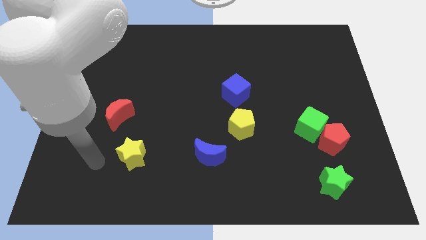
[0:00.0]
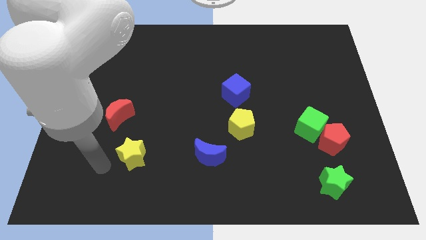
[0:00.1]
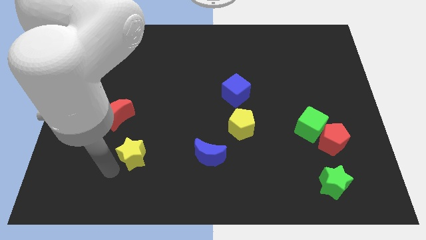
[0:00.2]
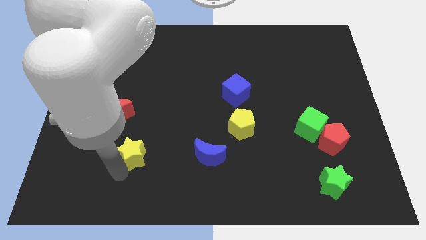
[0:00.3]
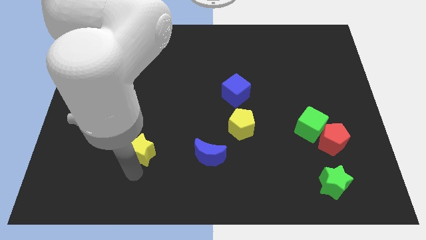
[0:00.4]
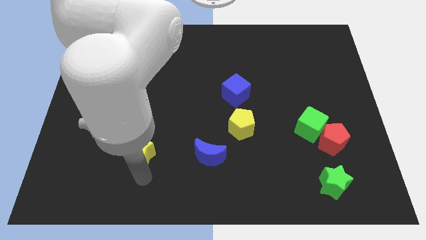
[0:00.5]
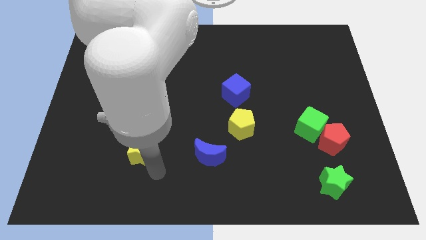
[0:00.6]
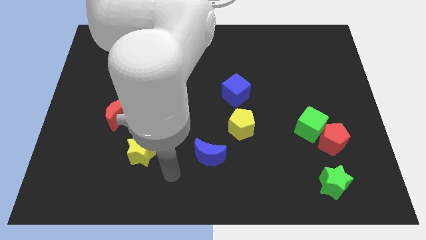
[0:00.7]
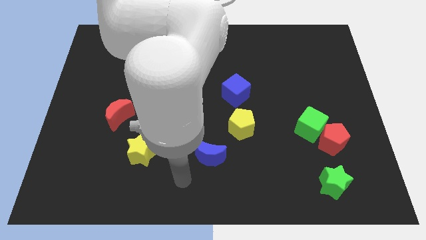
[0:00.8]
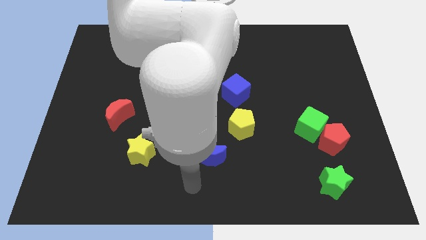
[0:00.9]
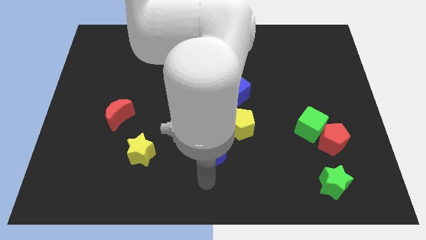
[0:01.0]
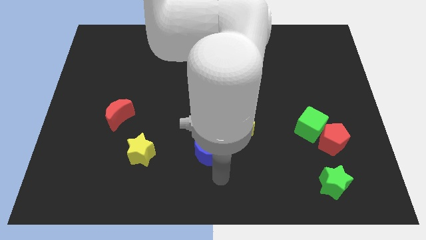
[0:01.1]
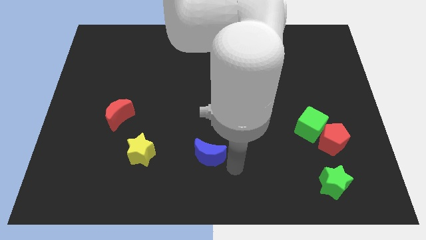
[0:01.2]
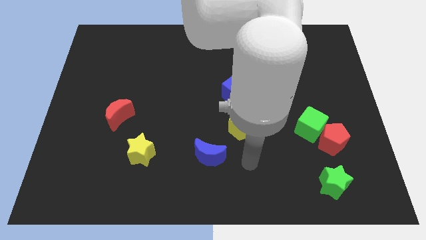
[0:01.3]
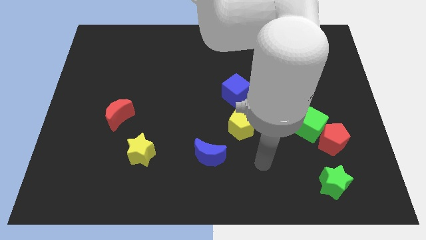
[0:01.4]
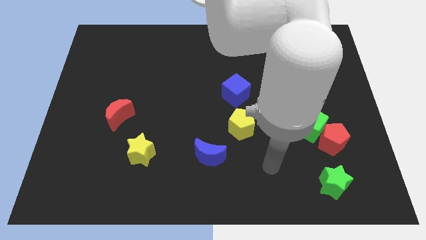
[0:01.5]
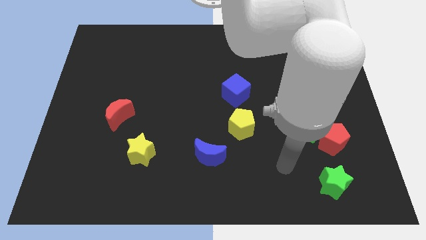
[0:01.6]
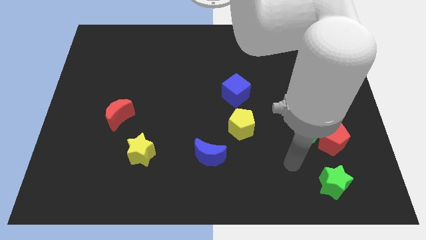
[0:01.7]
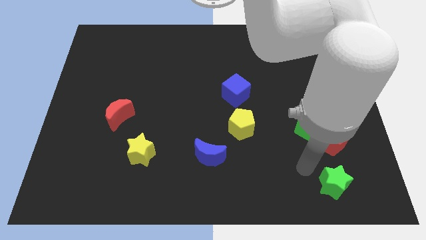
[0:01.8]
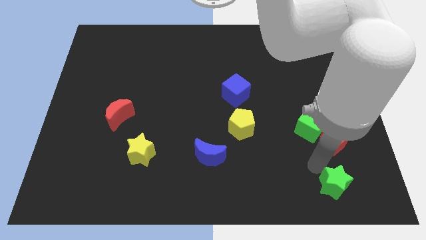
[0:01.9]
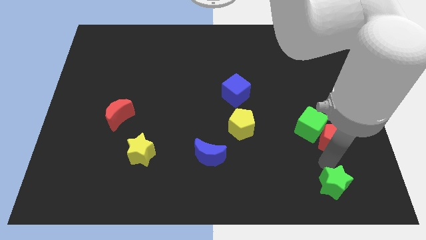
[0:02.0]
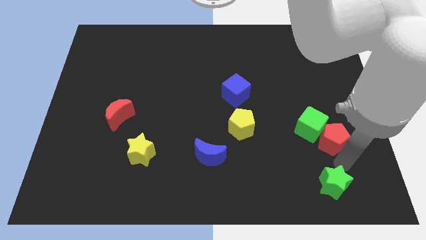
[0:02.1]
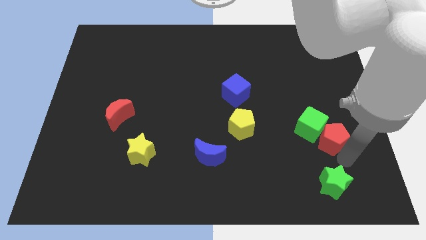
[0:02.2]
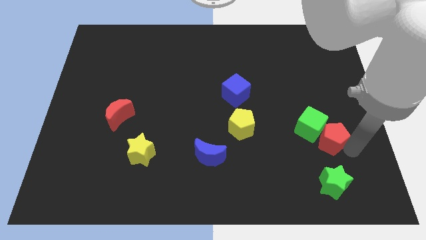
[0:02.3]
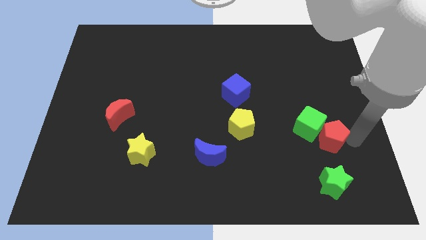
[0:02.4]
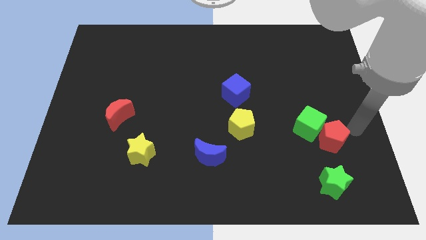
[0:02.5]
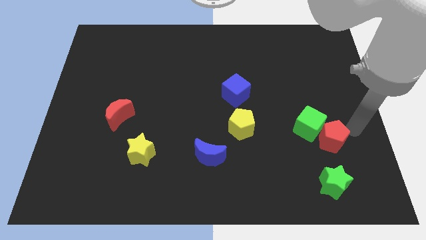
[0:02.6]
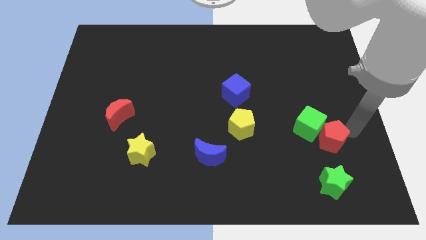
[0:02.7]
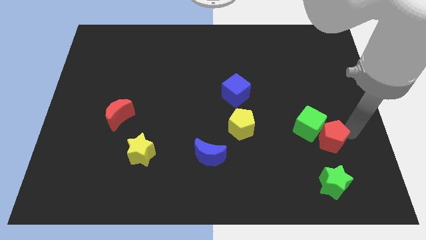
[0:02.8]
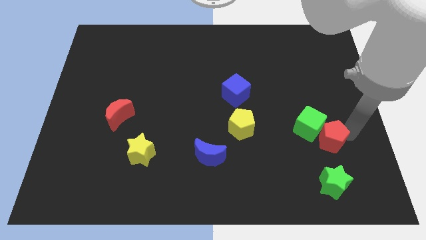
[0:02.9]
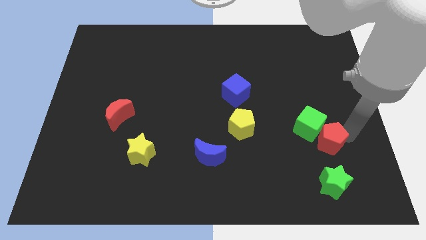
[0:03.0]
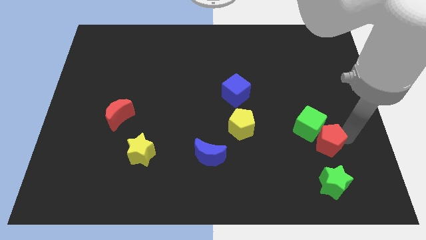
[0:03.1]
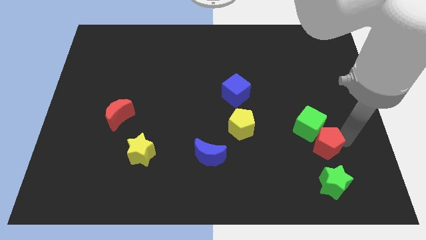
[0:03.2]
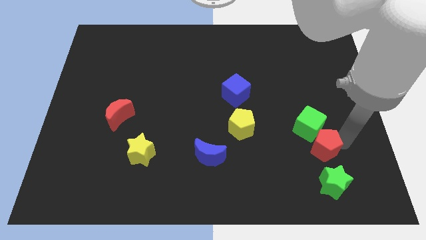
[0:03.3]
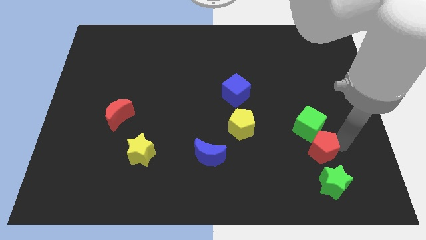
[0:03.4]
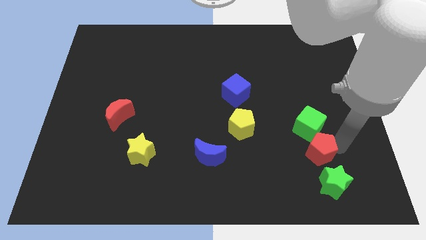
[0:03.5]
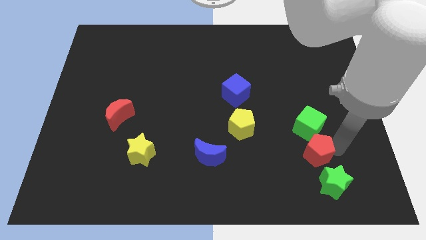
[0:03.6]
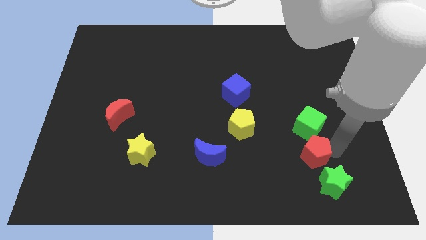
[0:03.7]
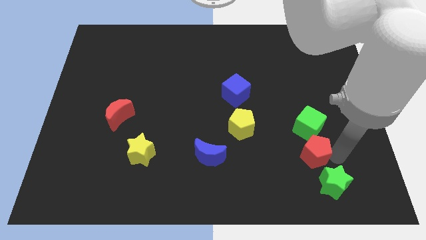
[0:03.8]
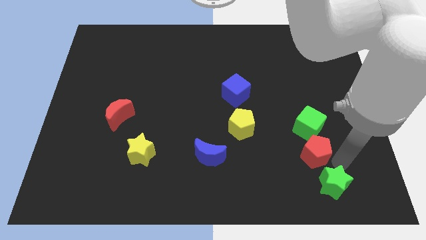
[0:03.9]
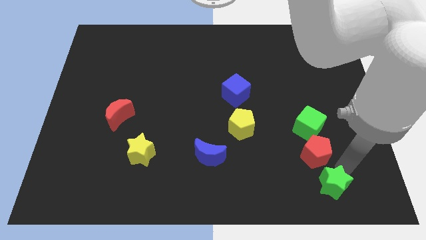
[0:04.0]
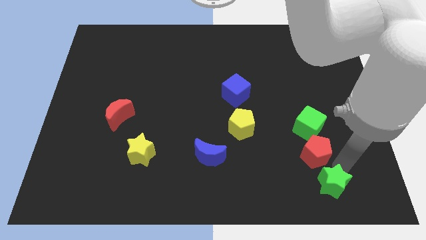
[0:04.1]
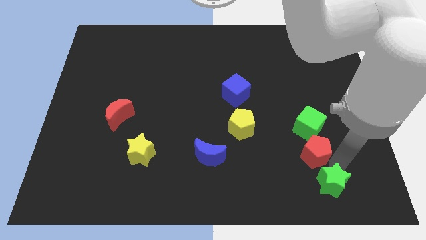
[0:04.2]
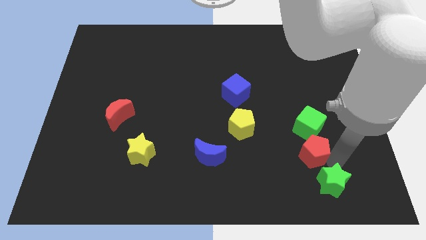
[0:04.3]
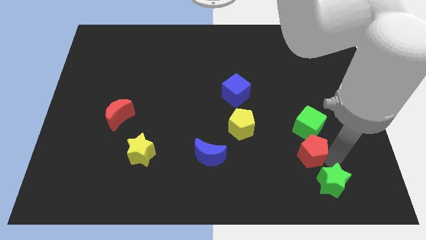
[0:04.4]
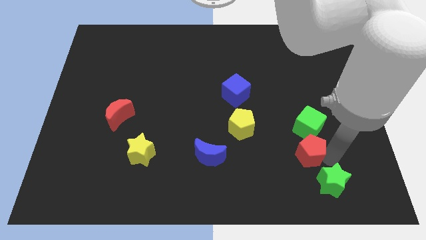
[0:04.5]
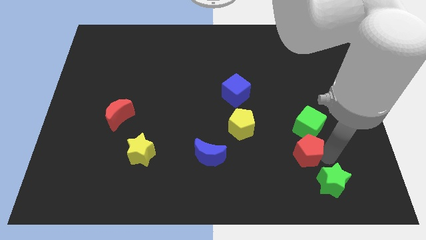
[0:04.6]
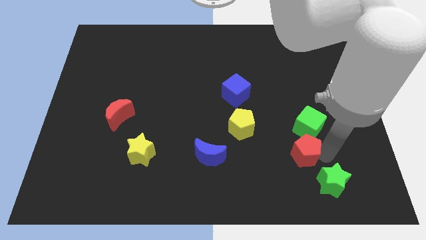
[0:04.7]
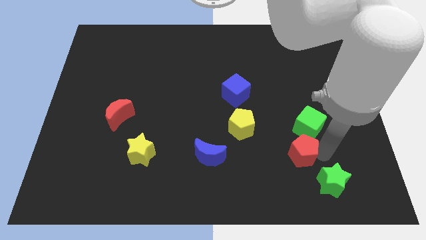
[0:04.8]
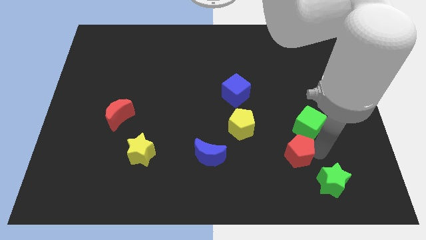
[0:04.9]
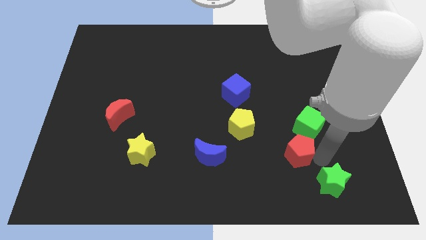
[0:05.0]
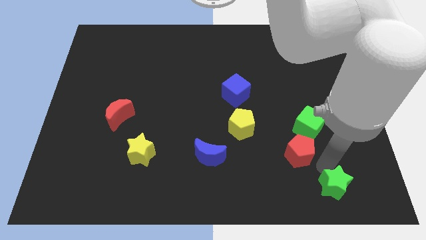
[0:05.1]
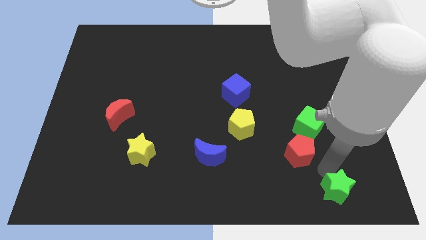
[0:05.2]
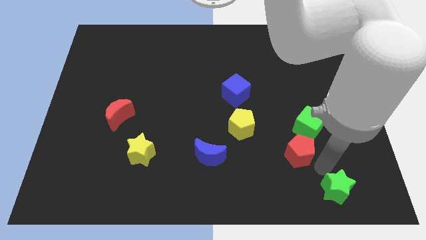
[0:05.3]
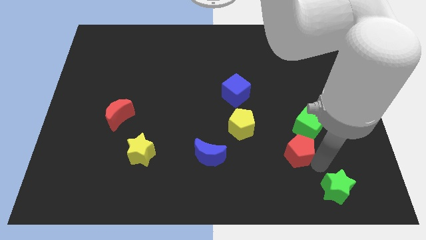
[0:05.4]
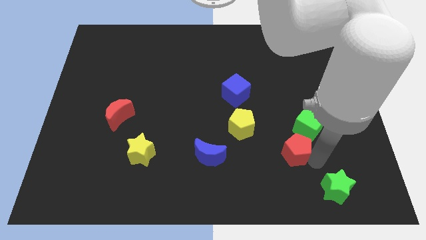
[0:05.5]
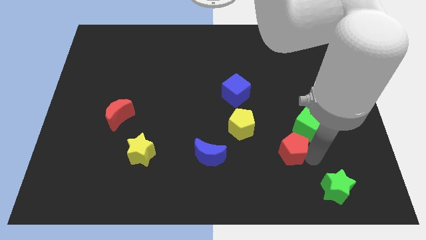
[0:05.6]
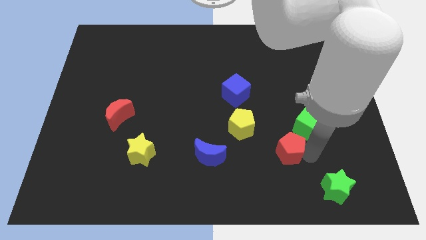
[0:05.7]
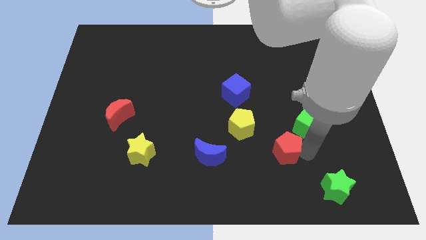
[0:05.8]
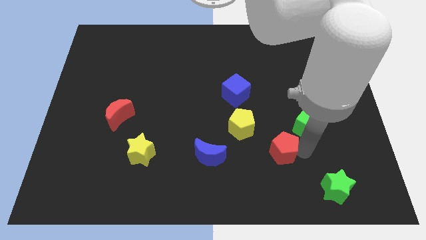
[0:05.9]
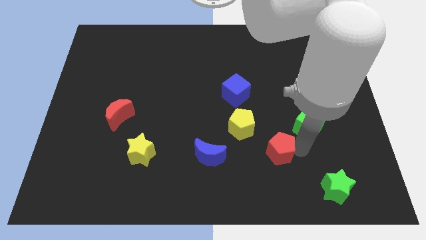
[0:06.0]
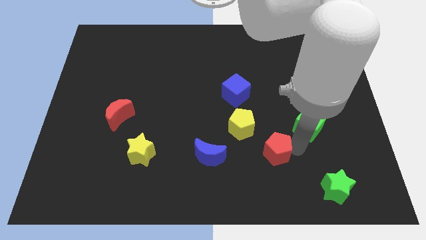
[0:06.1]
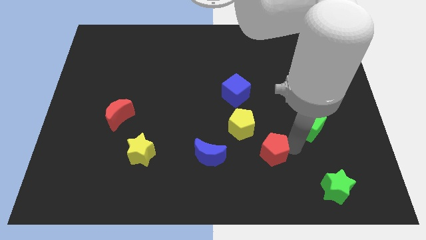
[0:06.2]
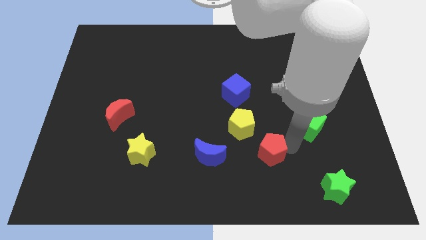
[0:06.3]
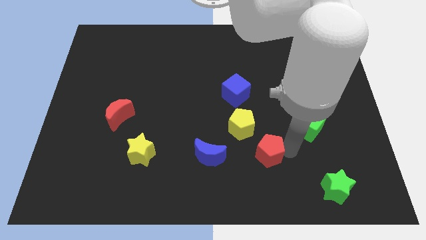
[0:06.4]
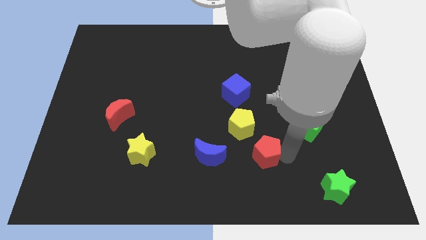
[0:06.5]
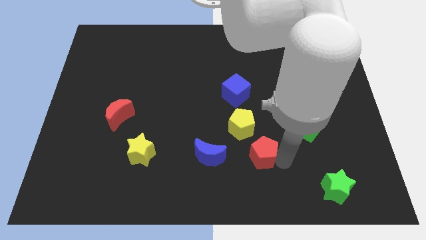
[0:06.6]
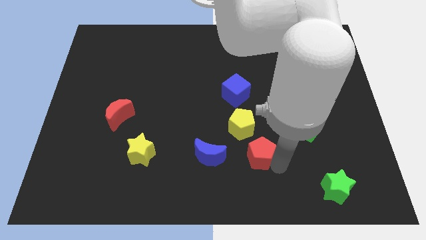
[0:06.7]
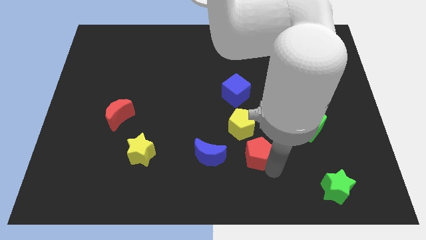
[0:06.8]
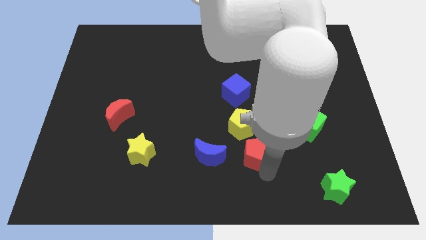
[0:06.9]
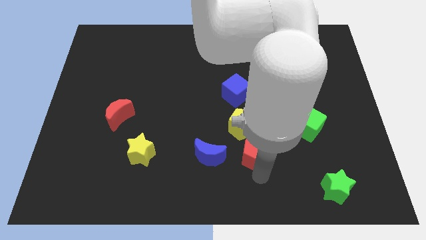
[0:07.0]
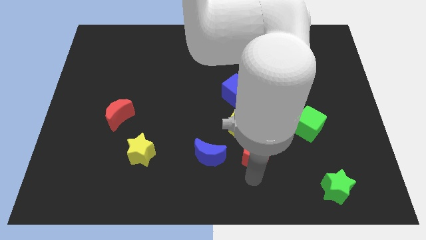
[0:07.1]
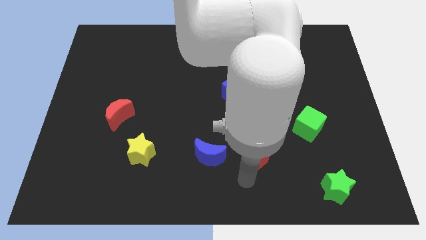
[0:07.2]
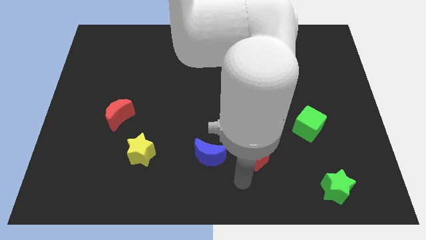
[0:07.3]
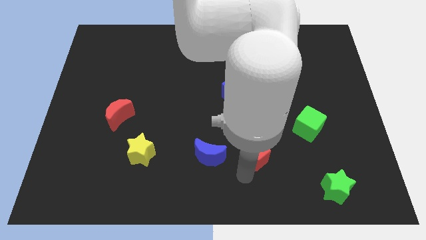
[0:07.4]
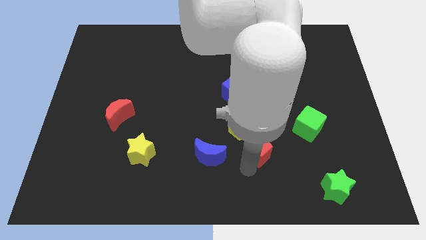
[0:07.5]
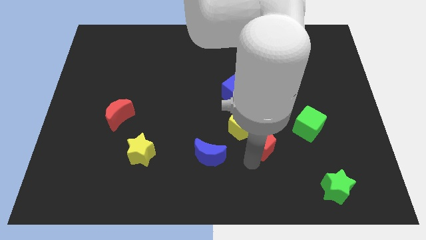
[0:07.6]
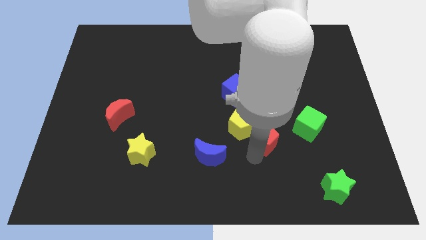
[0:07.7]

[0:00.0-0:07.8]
push the red pentagon next to the yellow pentagon
